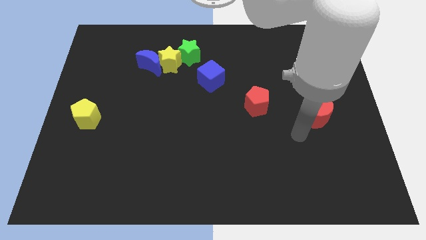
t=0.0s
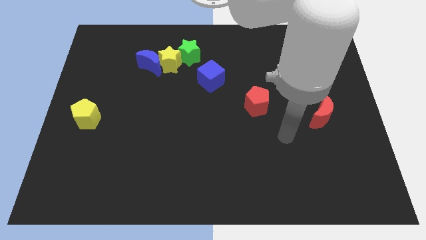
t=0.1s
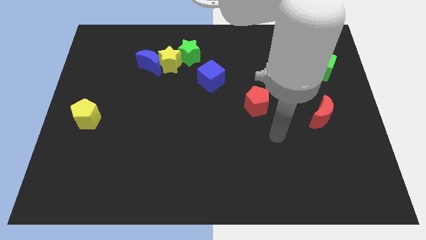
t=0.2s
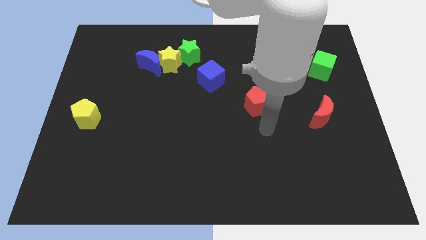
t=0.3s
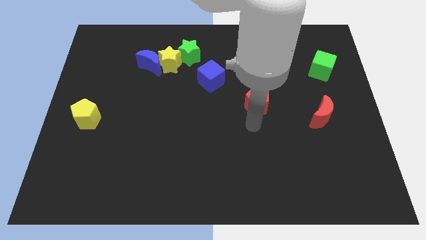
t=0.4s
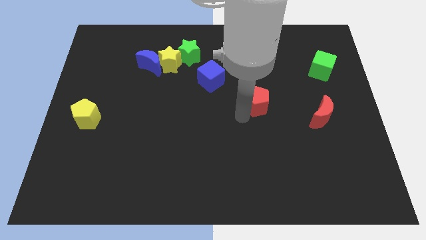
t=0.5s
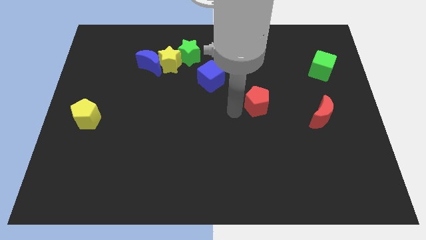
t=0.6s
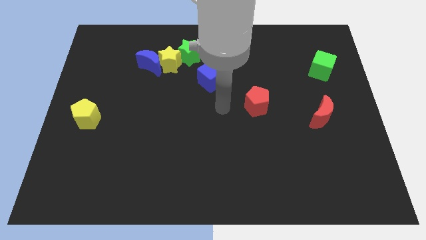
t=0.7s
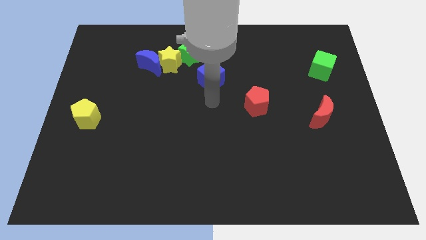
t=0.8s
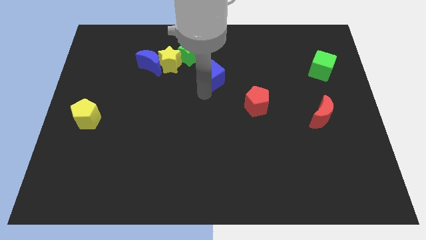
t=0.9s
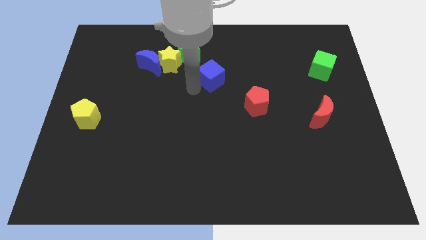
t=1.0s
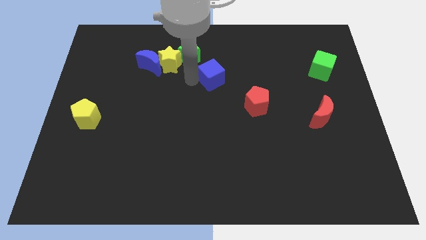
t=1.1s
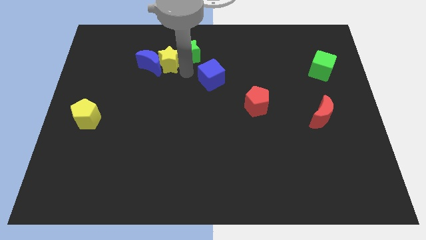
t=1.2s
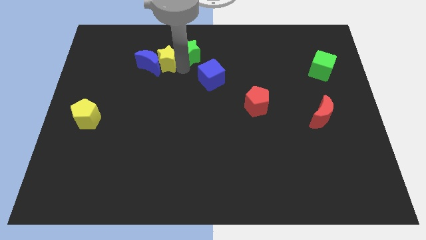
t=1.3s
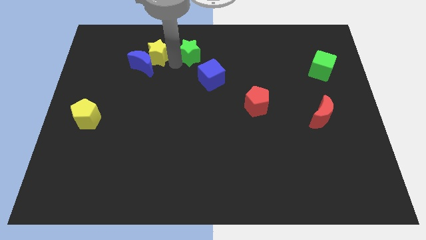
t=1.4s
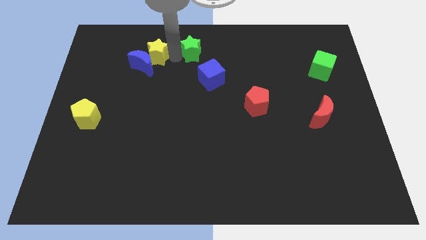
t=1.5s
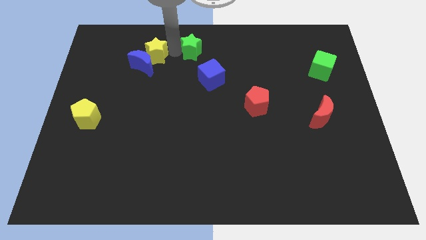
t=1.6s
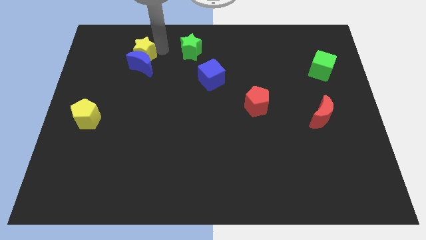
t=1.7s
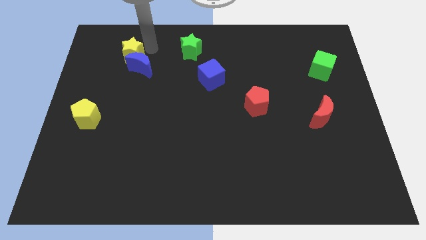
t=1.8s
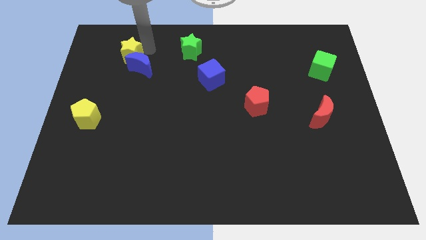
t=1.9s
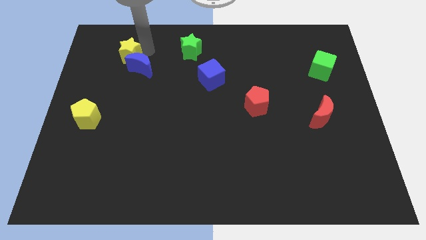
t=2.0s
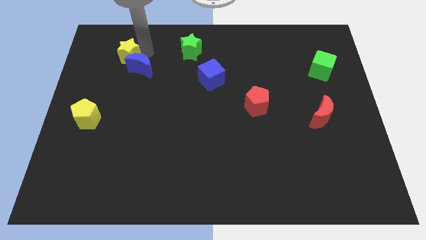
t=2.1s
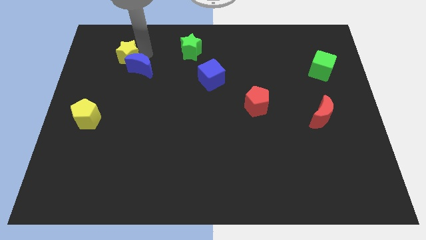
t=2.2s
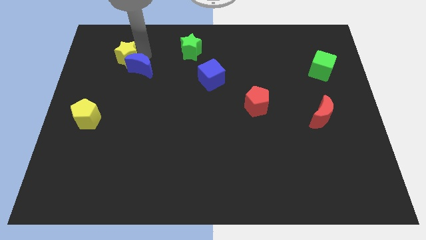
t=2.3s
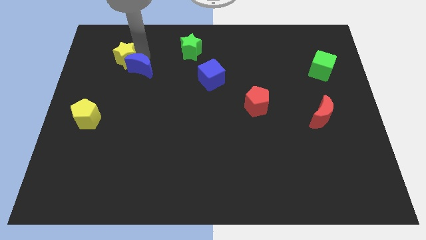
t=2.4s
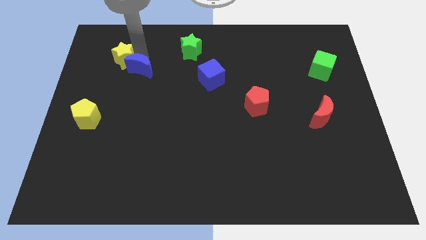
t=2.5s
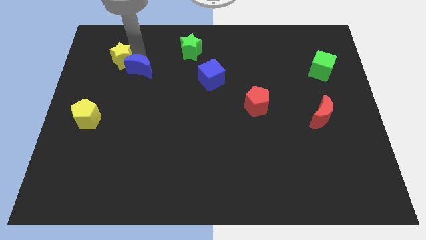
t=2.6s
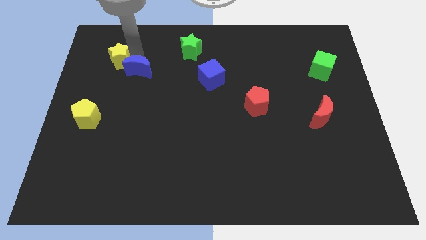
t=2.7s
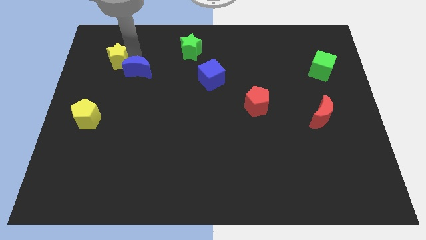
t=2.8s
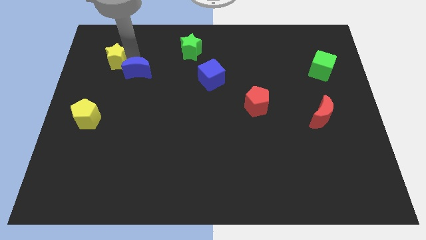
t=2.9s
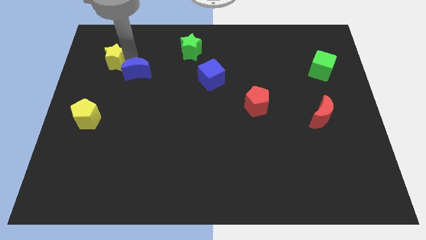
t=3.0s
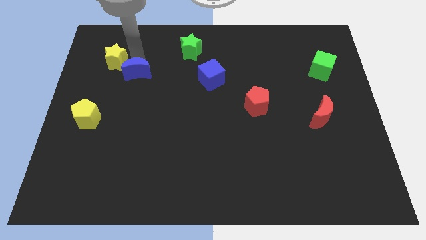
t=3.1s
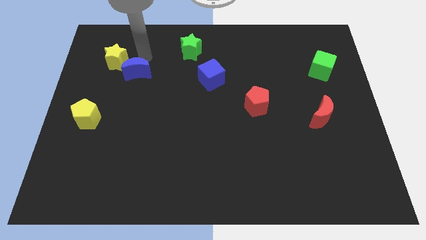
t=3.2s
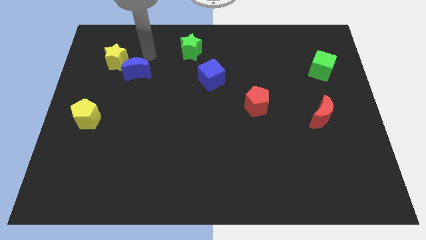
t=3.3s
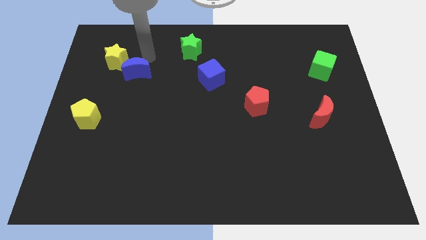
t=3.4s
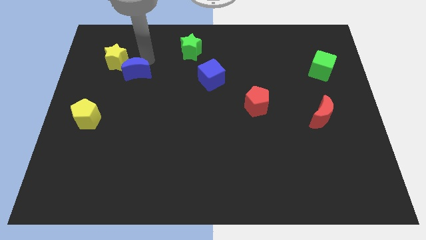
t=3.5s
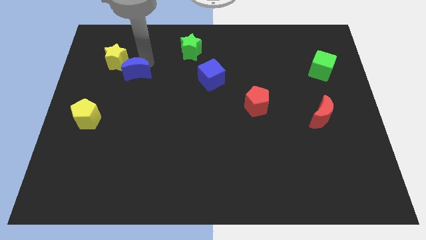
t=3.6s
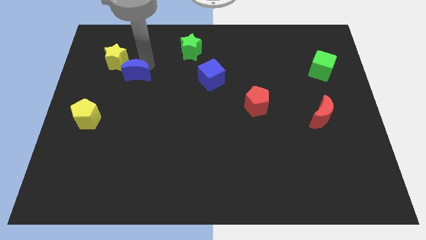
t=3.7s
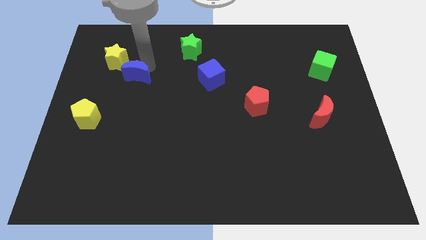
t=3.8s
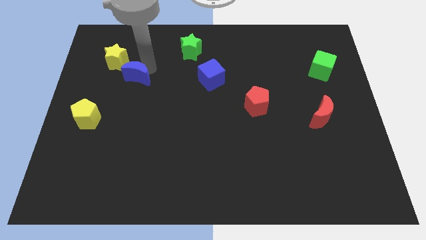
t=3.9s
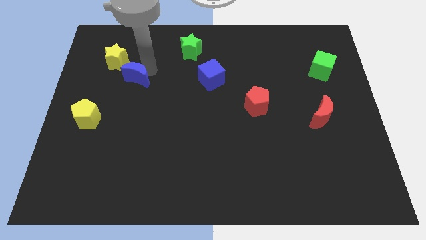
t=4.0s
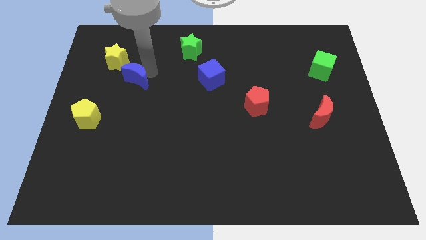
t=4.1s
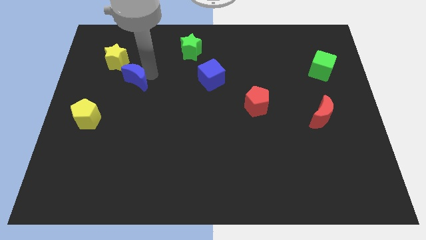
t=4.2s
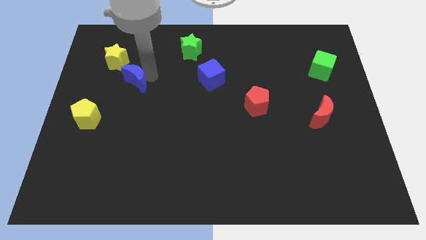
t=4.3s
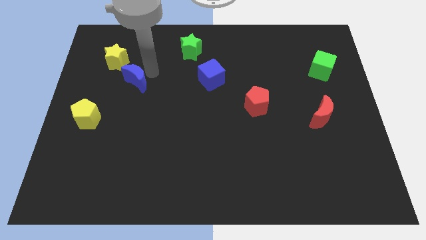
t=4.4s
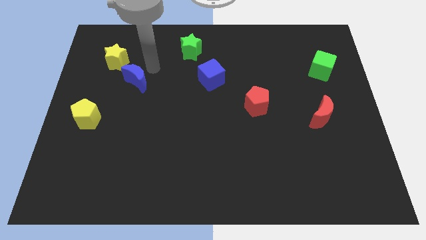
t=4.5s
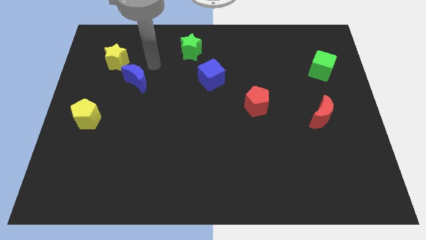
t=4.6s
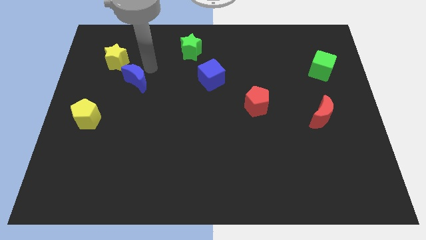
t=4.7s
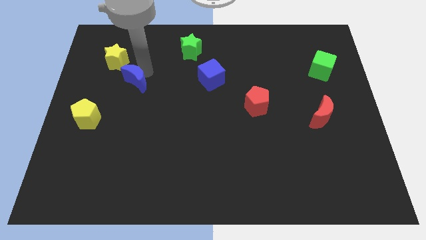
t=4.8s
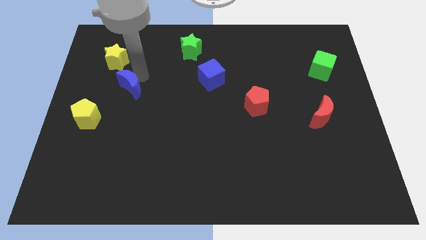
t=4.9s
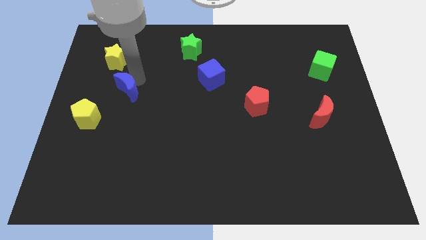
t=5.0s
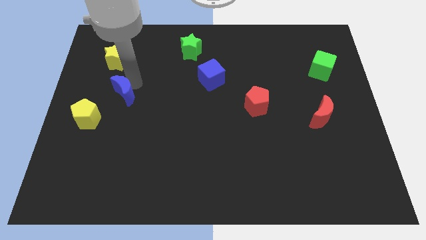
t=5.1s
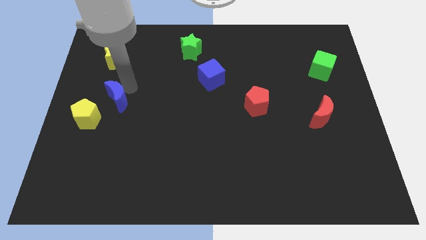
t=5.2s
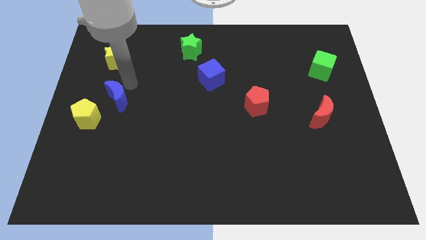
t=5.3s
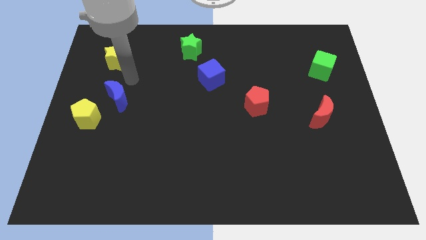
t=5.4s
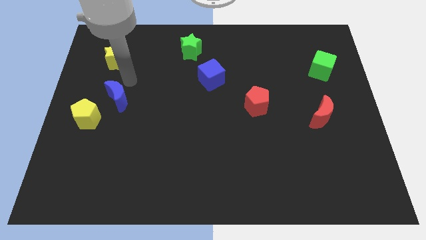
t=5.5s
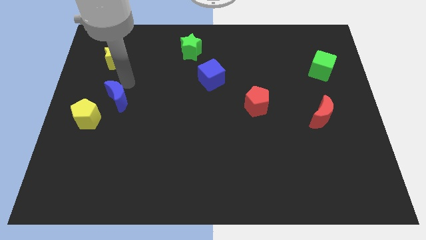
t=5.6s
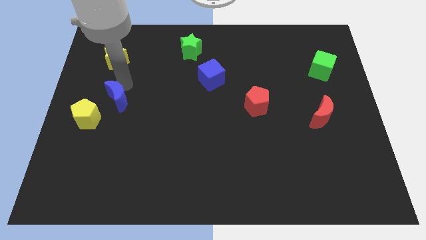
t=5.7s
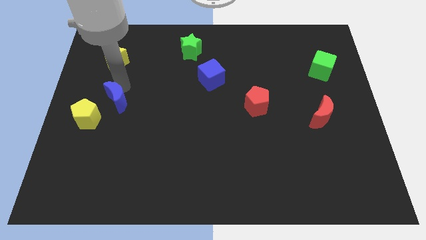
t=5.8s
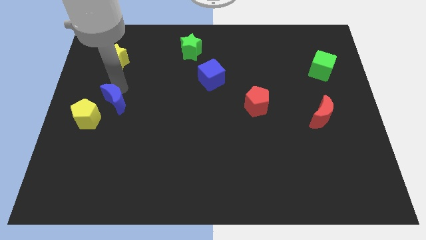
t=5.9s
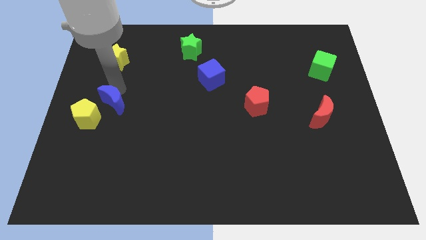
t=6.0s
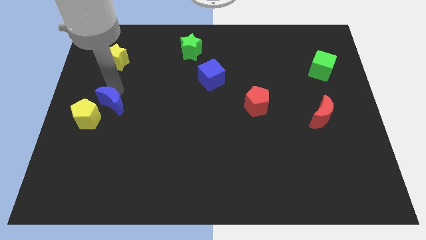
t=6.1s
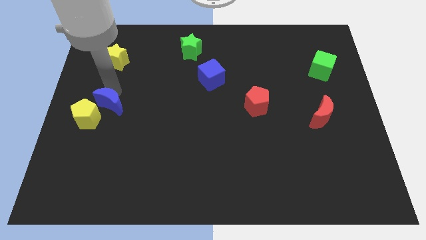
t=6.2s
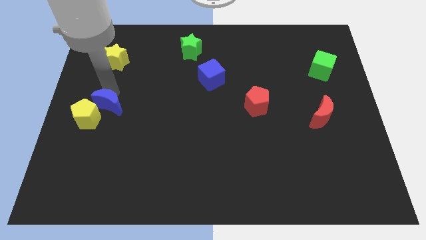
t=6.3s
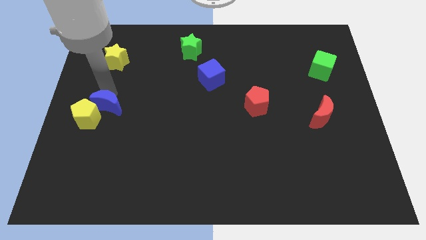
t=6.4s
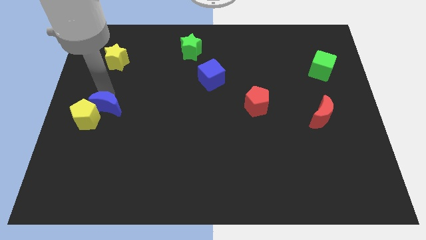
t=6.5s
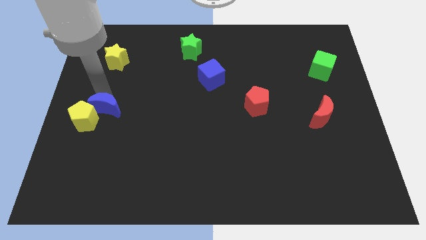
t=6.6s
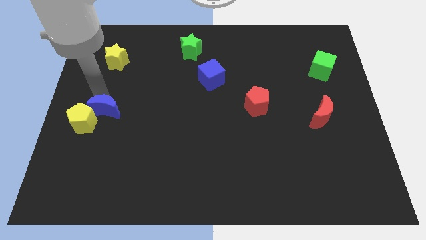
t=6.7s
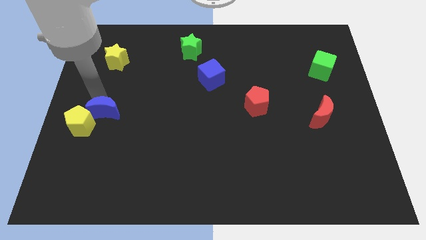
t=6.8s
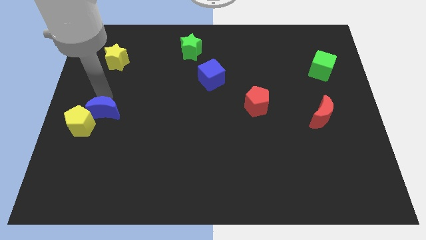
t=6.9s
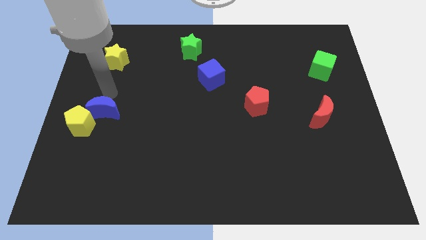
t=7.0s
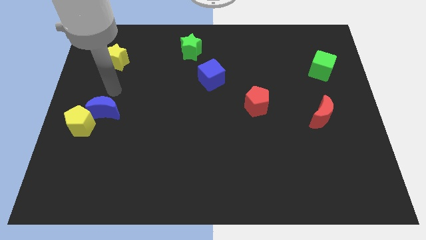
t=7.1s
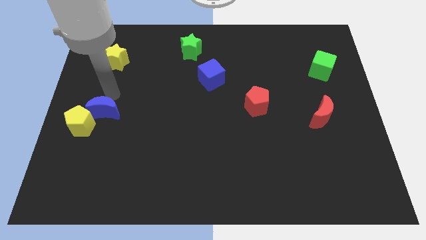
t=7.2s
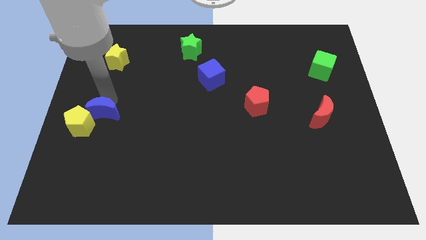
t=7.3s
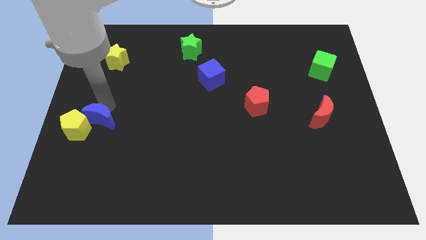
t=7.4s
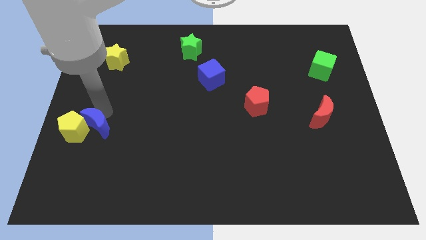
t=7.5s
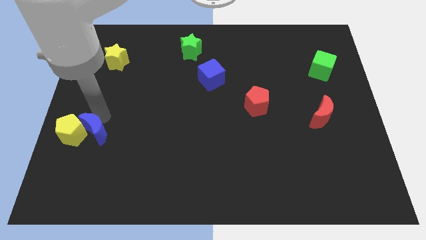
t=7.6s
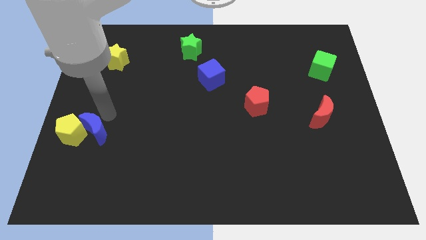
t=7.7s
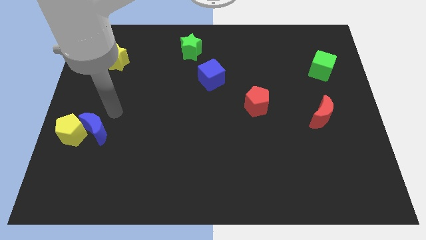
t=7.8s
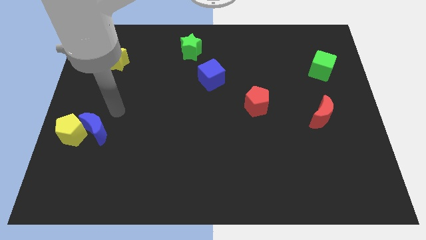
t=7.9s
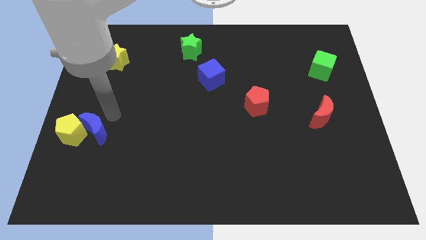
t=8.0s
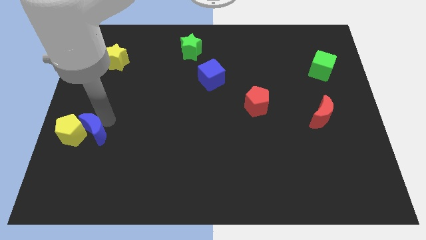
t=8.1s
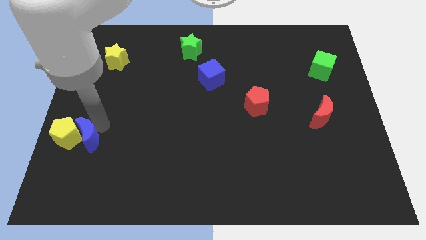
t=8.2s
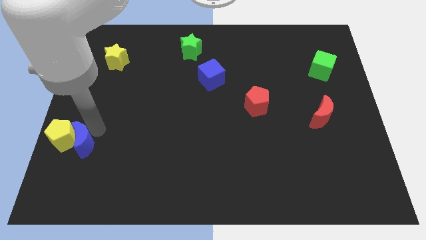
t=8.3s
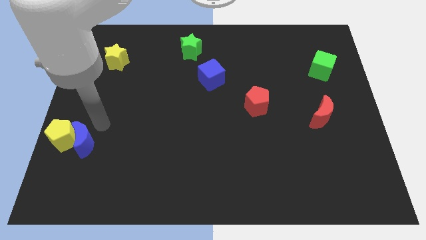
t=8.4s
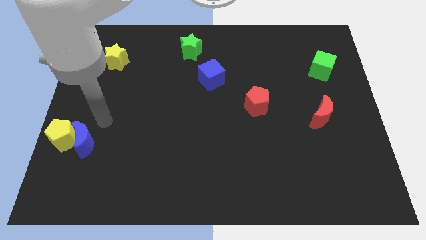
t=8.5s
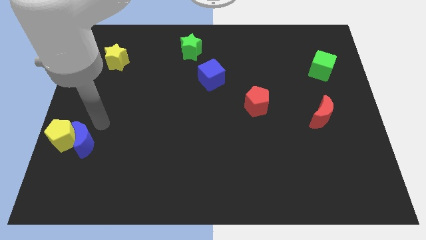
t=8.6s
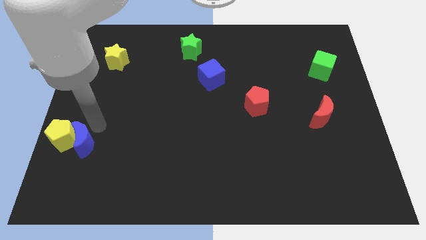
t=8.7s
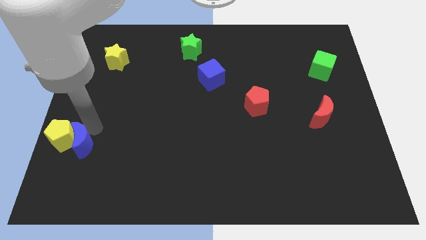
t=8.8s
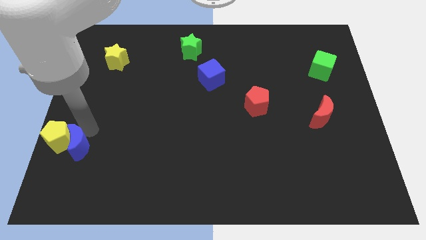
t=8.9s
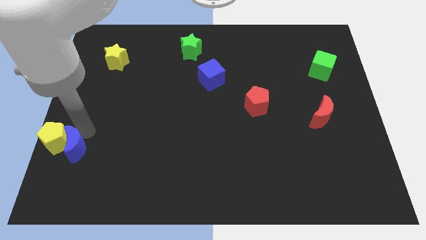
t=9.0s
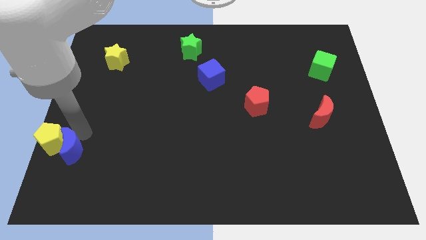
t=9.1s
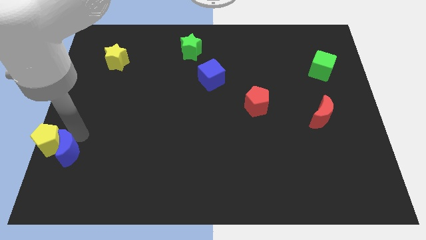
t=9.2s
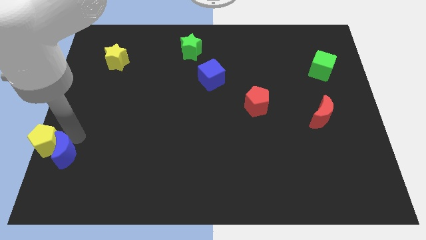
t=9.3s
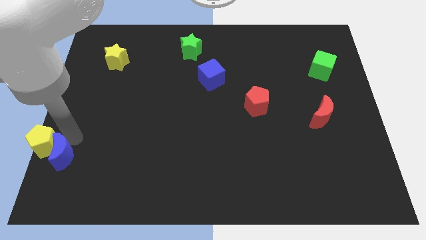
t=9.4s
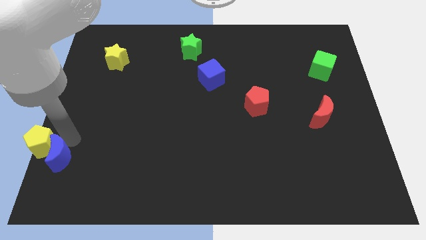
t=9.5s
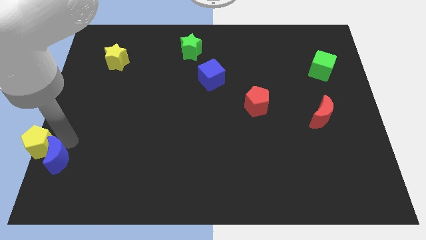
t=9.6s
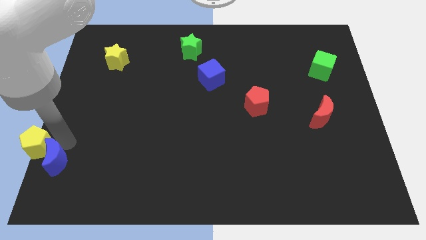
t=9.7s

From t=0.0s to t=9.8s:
move the blue moon to the bottom left
